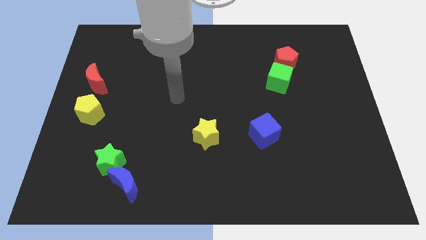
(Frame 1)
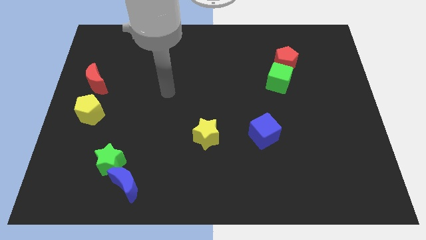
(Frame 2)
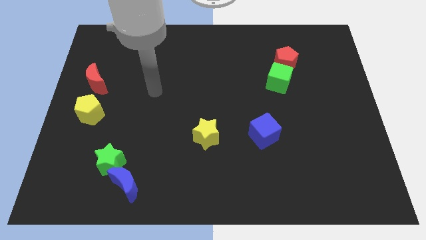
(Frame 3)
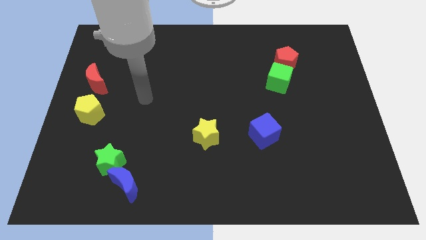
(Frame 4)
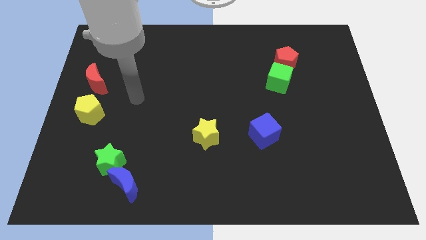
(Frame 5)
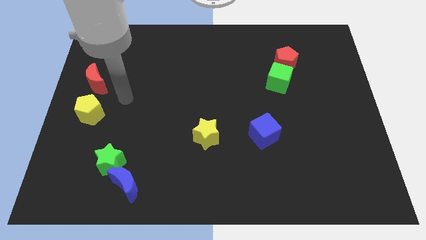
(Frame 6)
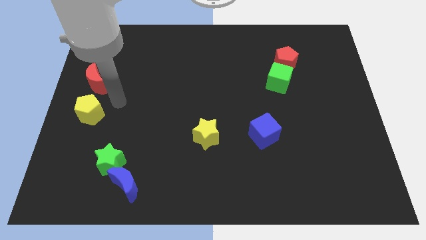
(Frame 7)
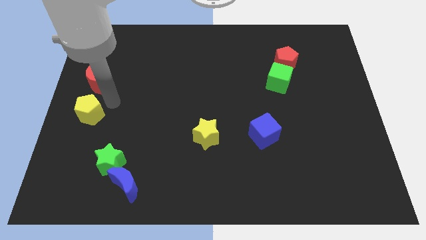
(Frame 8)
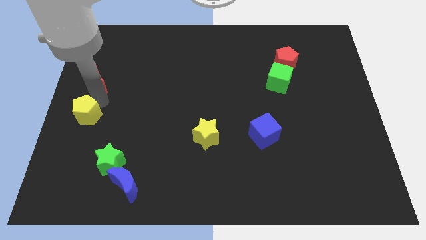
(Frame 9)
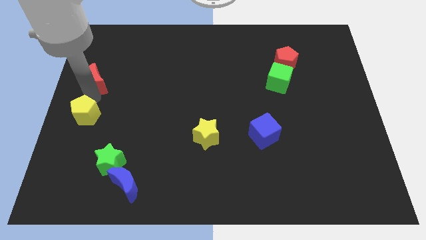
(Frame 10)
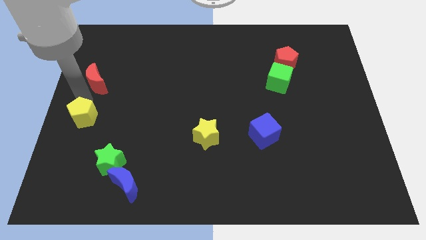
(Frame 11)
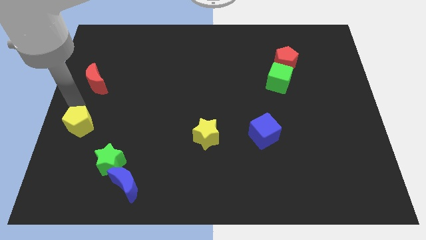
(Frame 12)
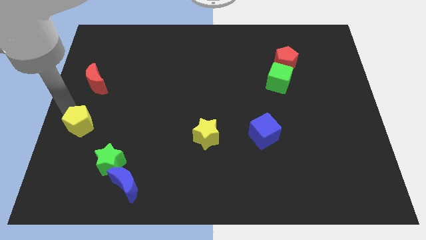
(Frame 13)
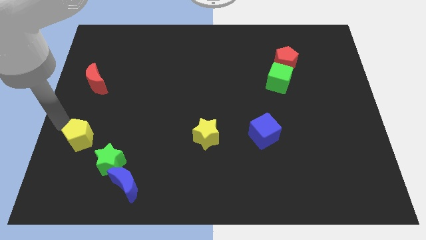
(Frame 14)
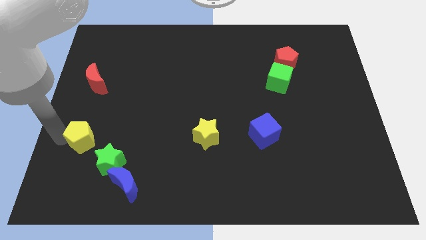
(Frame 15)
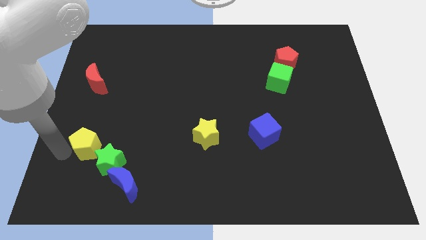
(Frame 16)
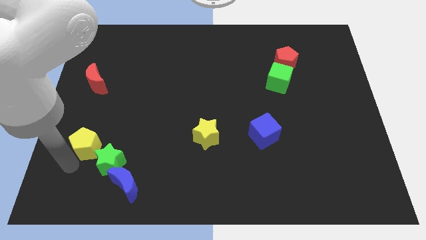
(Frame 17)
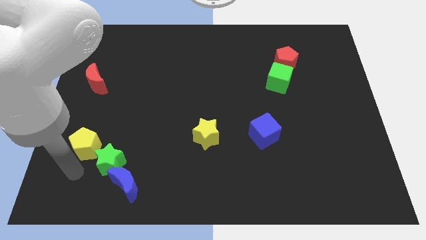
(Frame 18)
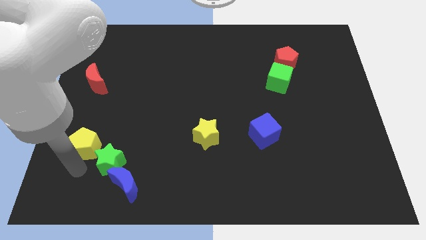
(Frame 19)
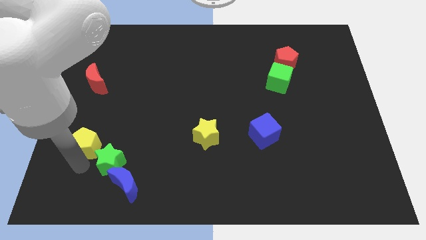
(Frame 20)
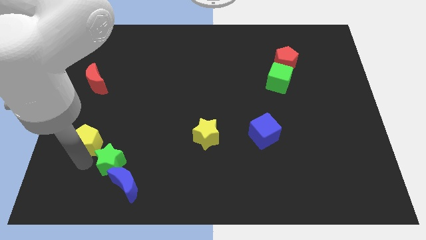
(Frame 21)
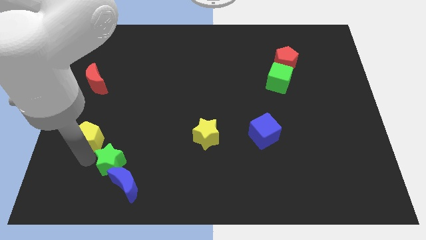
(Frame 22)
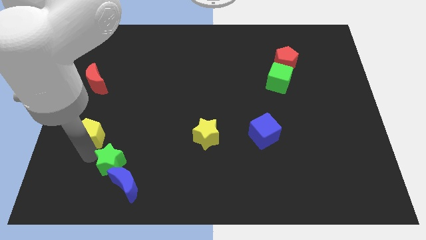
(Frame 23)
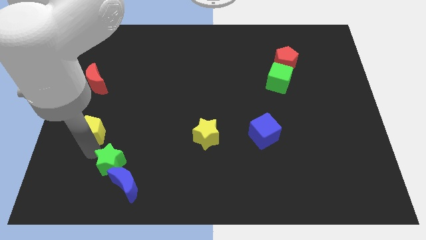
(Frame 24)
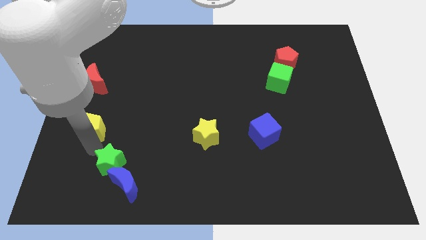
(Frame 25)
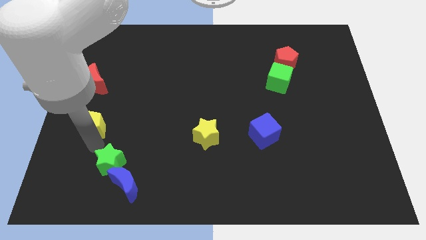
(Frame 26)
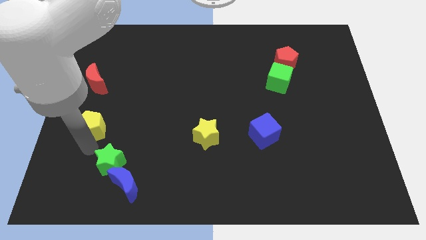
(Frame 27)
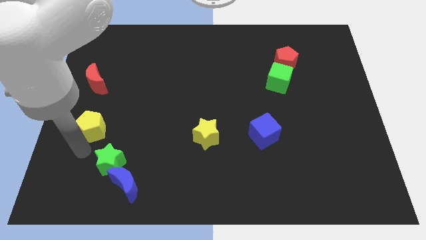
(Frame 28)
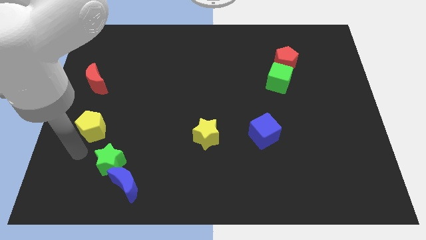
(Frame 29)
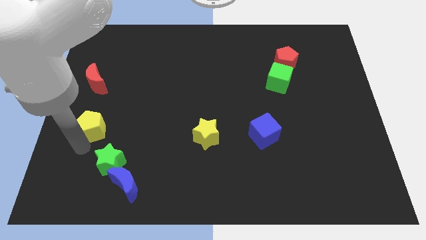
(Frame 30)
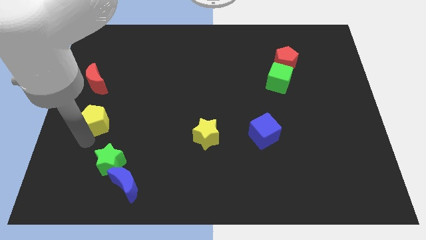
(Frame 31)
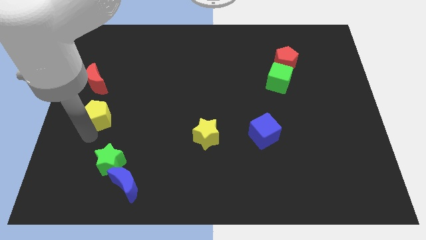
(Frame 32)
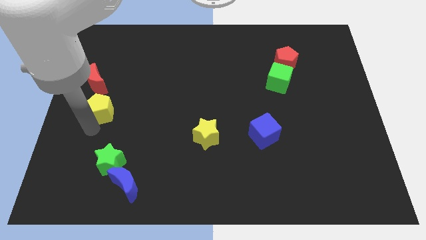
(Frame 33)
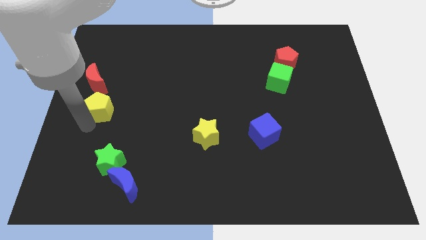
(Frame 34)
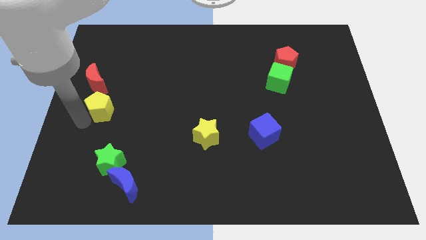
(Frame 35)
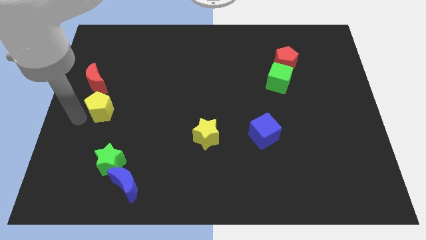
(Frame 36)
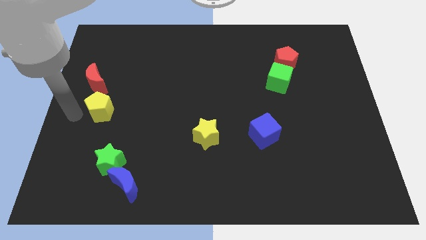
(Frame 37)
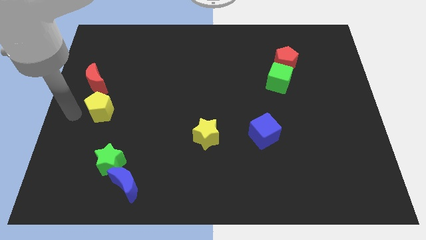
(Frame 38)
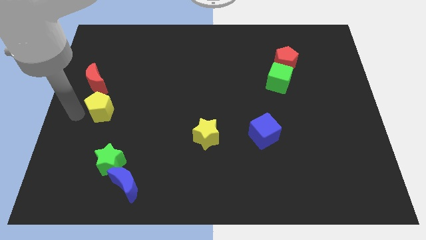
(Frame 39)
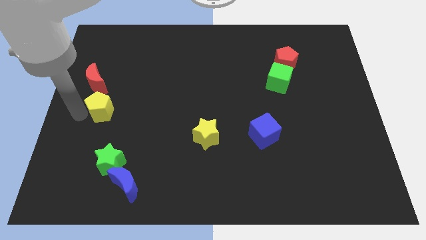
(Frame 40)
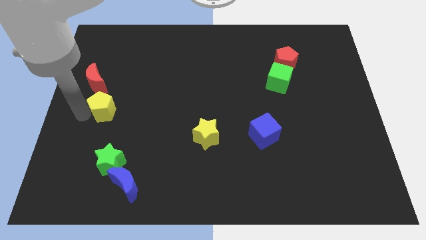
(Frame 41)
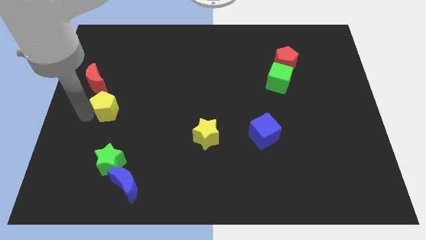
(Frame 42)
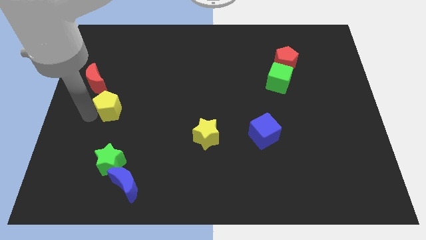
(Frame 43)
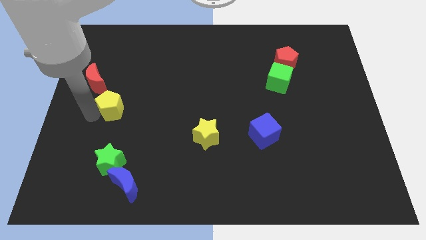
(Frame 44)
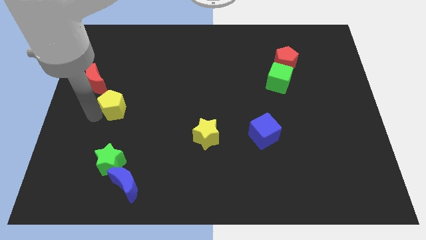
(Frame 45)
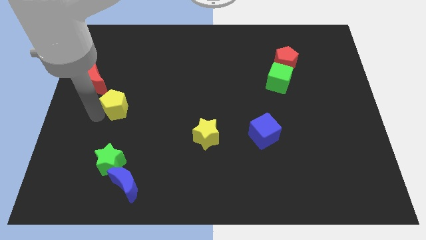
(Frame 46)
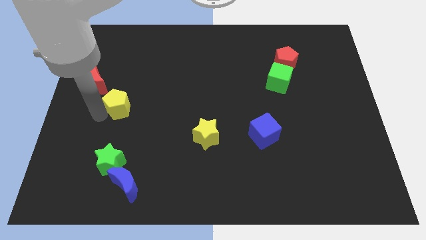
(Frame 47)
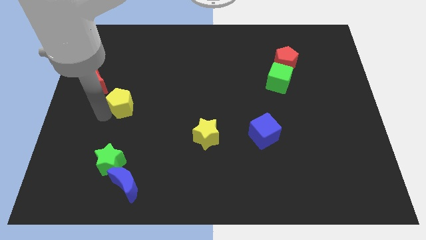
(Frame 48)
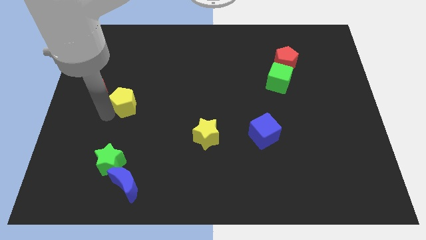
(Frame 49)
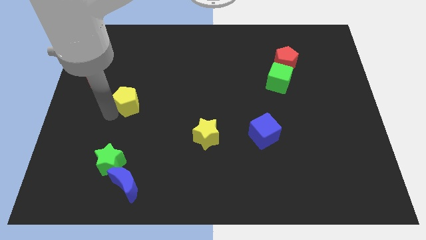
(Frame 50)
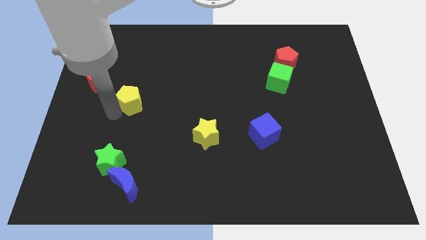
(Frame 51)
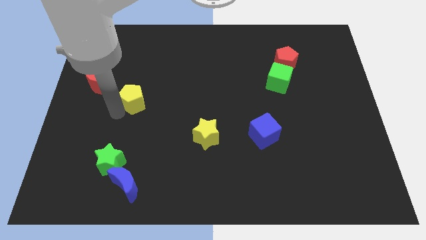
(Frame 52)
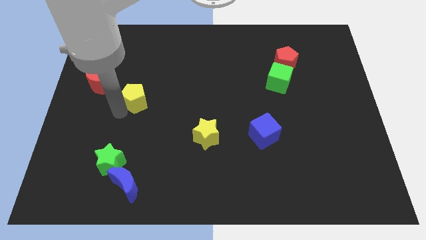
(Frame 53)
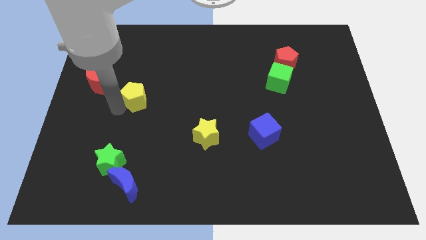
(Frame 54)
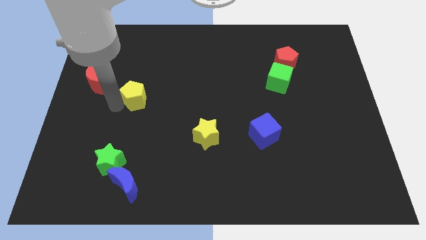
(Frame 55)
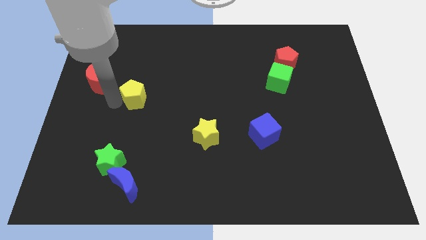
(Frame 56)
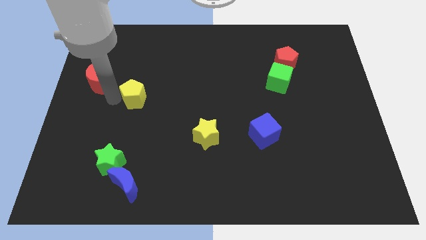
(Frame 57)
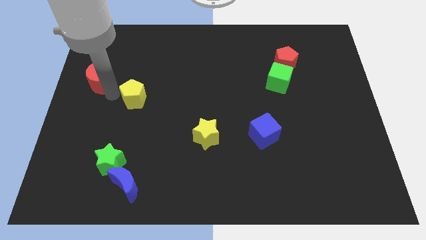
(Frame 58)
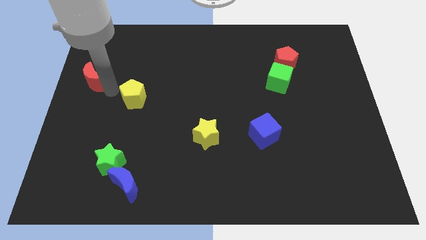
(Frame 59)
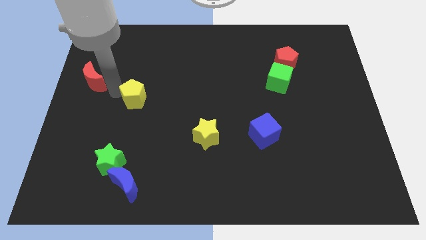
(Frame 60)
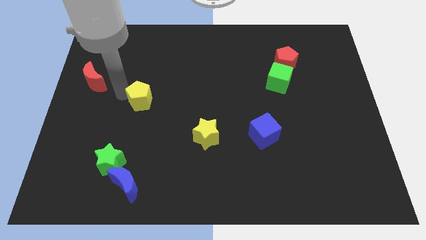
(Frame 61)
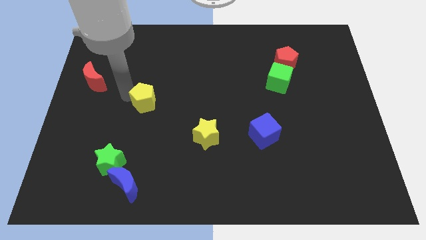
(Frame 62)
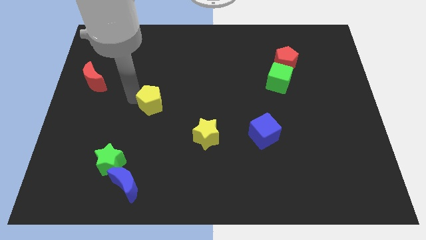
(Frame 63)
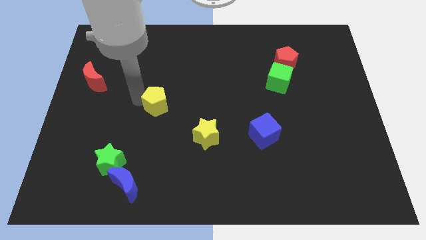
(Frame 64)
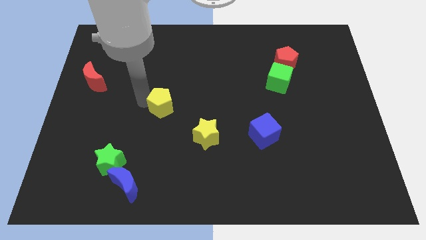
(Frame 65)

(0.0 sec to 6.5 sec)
move the yellow pentagon to the middle
